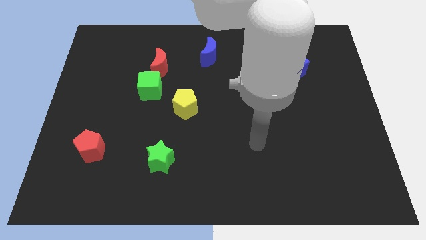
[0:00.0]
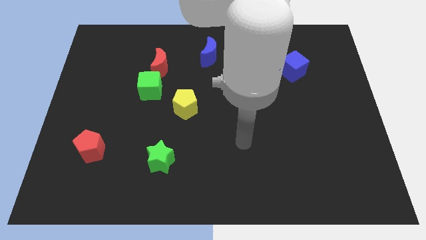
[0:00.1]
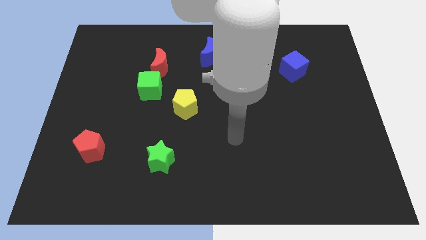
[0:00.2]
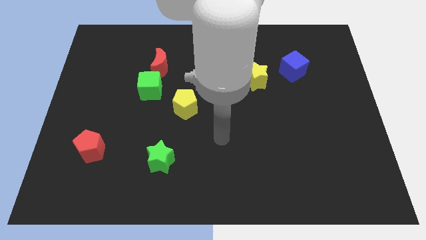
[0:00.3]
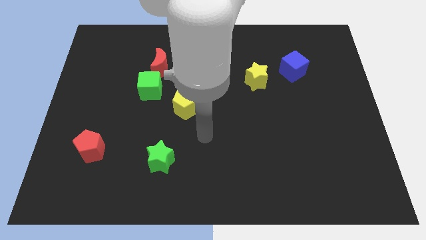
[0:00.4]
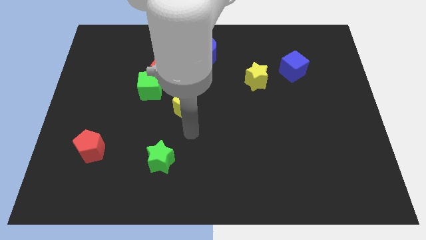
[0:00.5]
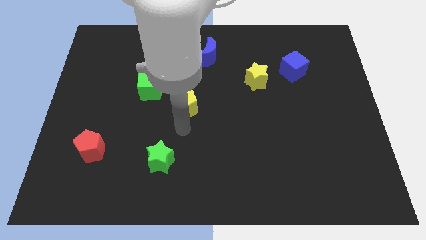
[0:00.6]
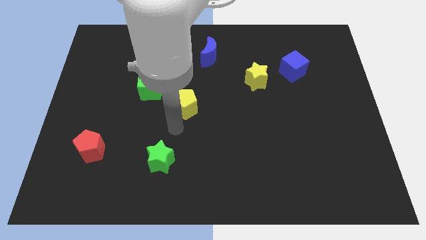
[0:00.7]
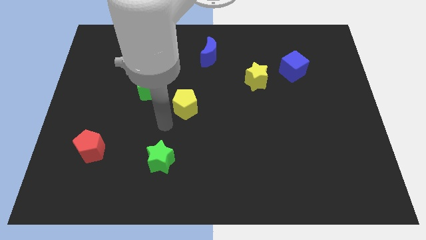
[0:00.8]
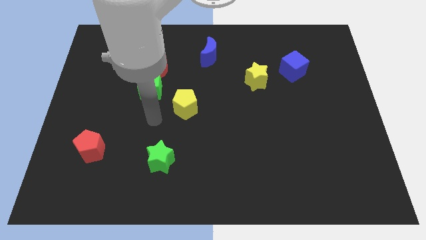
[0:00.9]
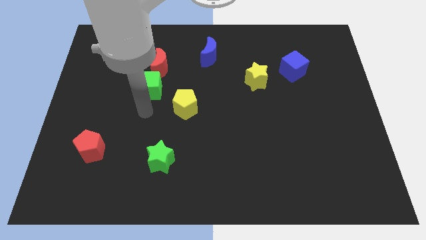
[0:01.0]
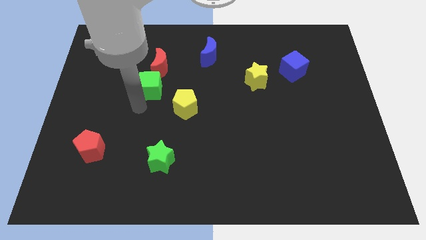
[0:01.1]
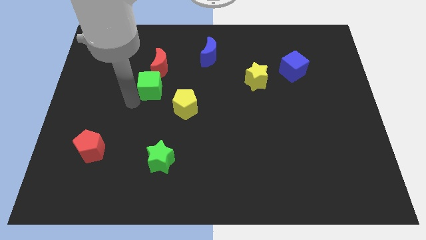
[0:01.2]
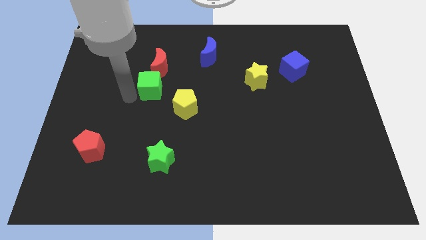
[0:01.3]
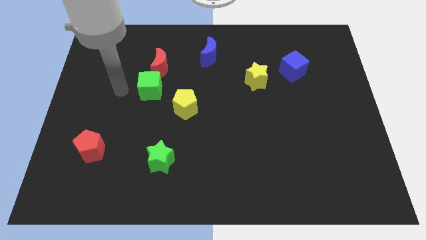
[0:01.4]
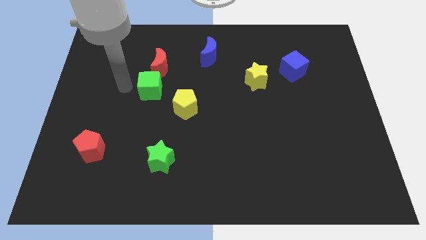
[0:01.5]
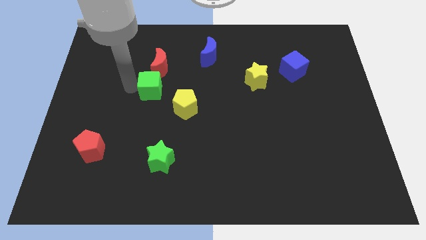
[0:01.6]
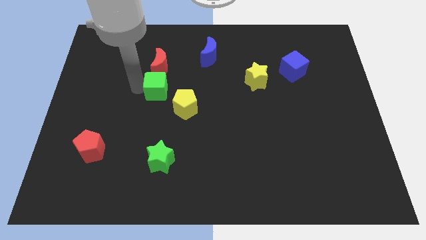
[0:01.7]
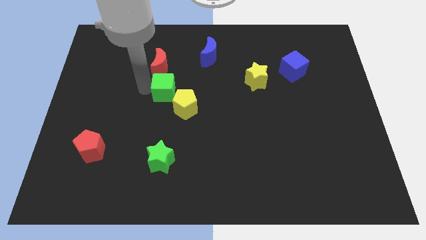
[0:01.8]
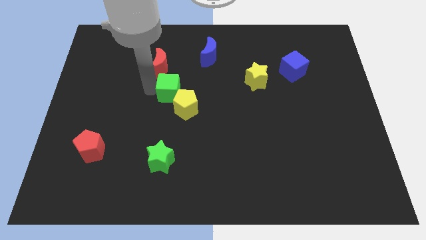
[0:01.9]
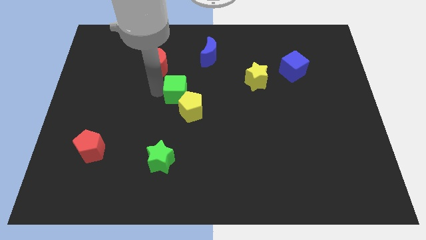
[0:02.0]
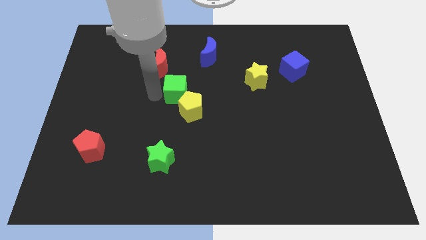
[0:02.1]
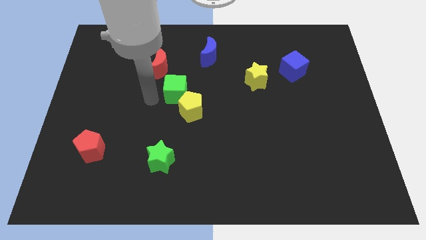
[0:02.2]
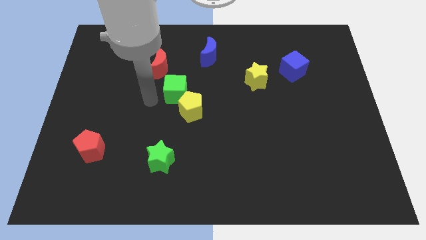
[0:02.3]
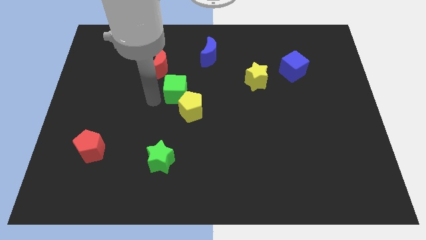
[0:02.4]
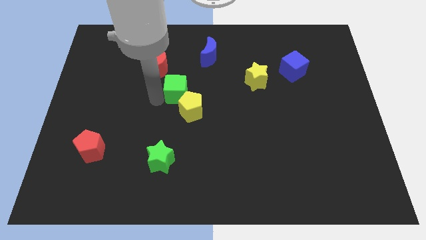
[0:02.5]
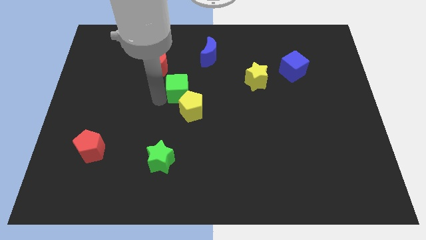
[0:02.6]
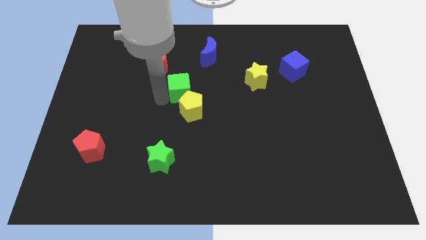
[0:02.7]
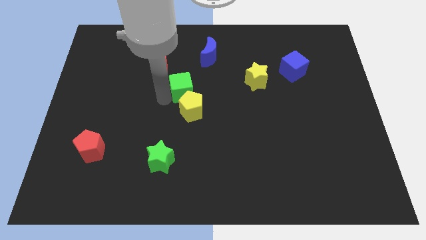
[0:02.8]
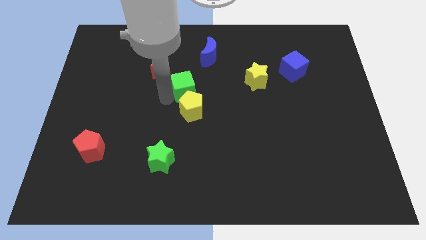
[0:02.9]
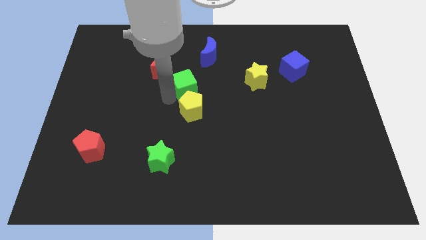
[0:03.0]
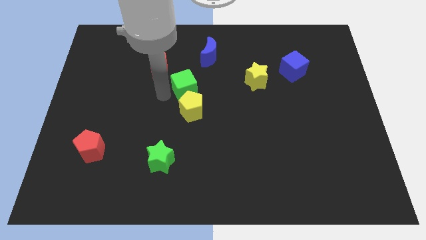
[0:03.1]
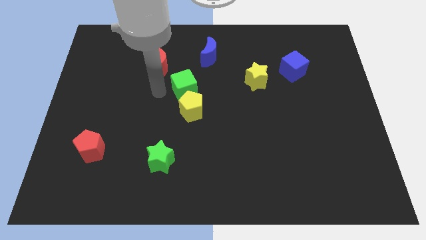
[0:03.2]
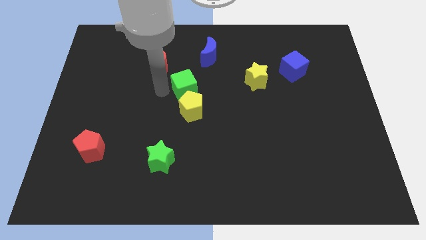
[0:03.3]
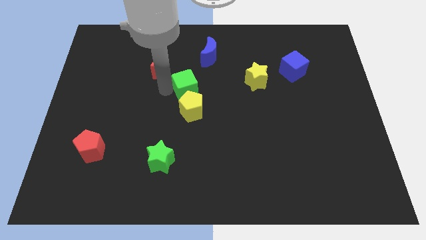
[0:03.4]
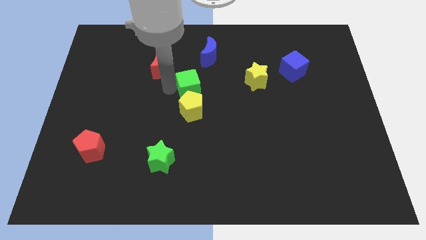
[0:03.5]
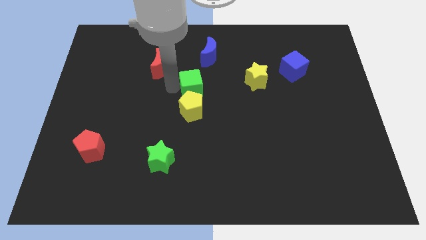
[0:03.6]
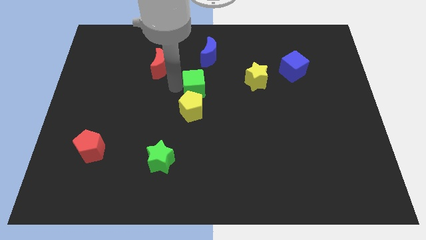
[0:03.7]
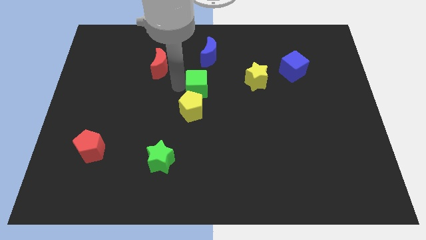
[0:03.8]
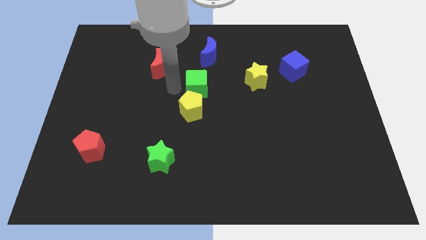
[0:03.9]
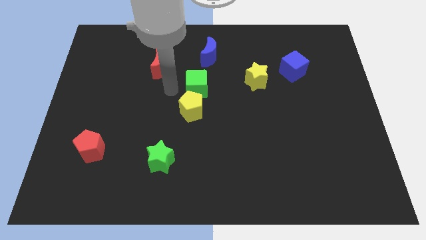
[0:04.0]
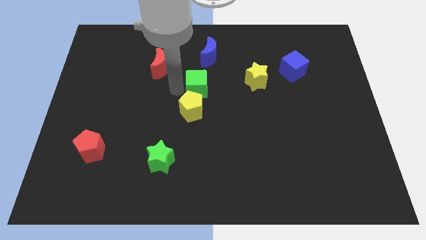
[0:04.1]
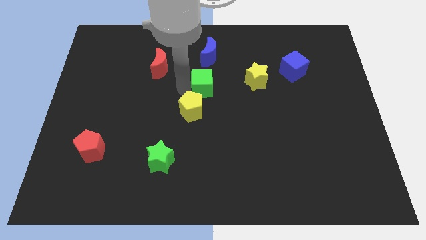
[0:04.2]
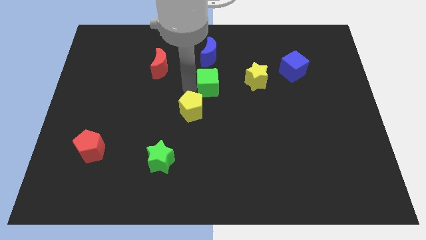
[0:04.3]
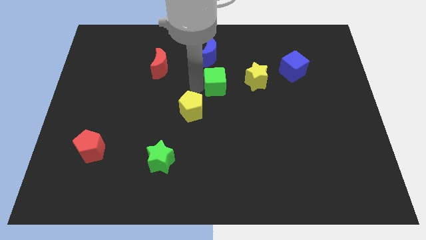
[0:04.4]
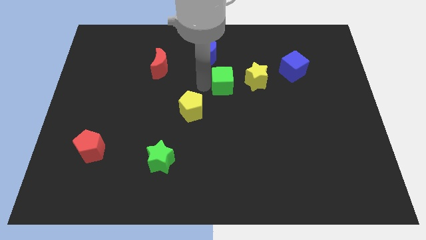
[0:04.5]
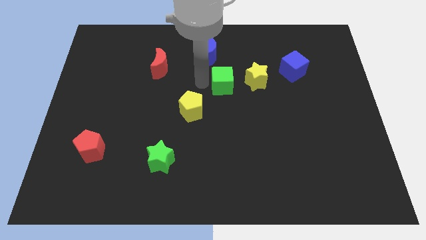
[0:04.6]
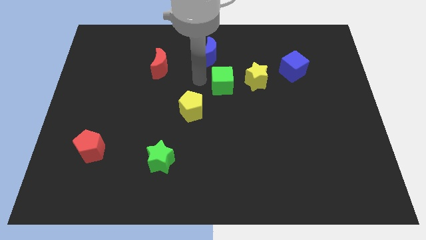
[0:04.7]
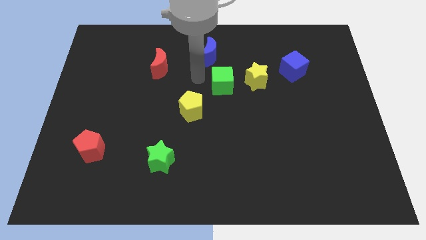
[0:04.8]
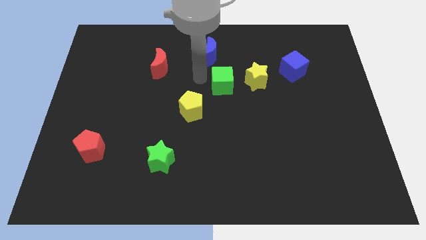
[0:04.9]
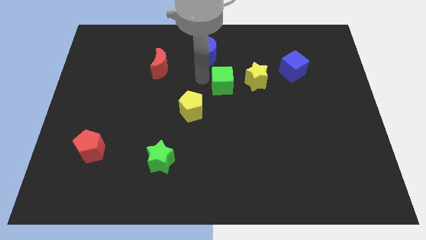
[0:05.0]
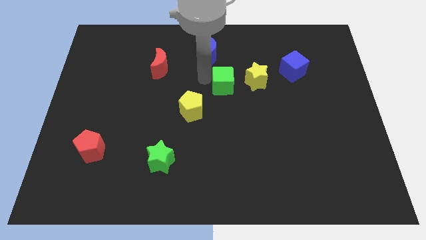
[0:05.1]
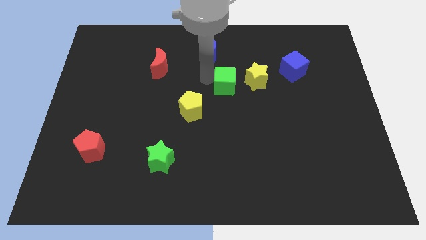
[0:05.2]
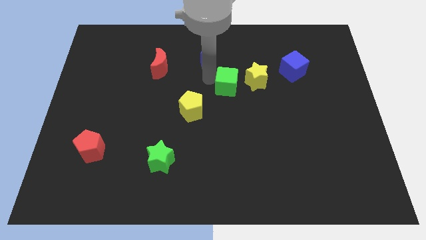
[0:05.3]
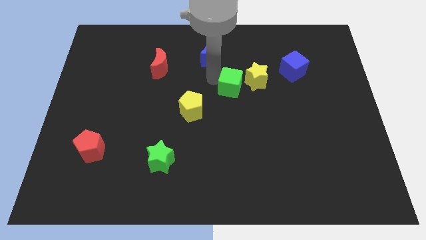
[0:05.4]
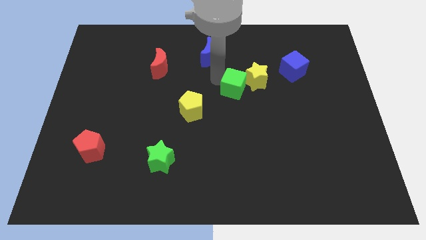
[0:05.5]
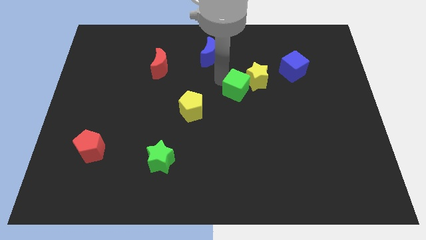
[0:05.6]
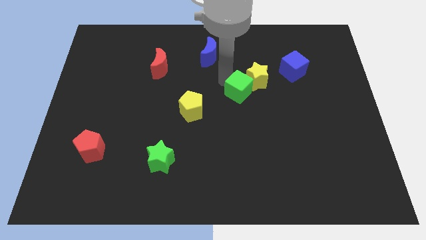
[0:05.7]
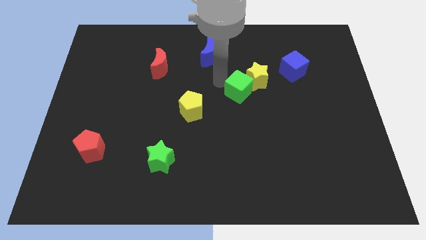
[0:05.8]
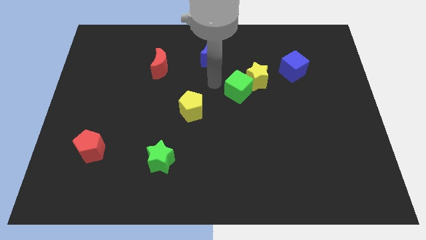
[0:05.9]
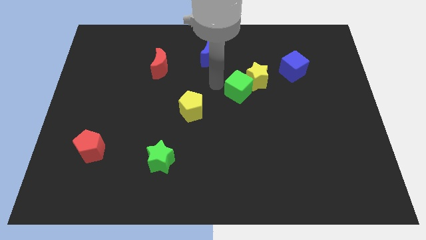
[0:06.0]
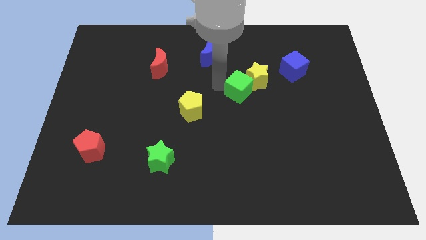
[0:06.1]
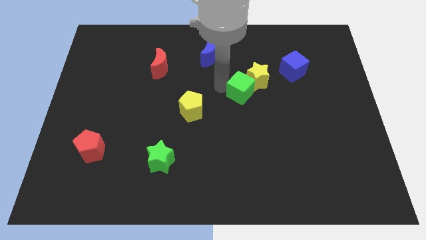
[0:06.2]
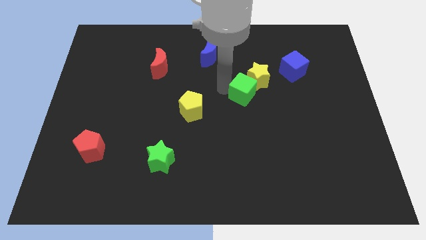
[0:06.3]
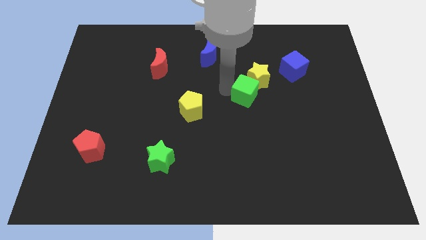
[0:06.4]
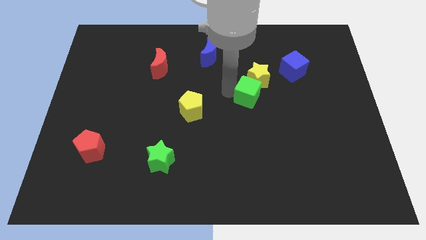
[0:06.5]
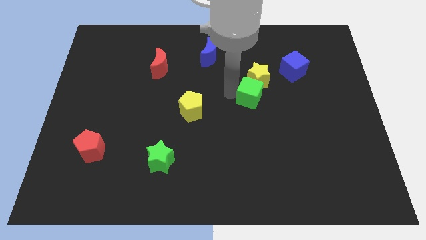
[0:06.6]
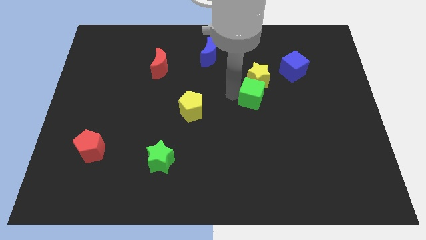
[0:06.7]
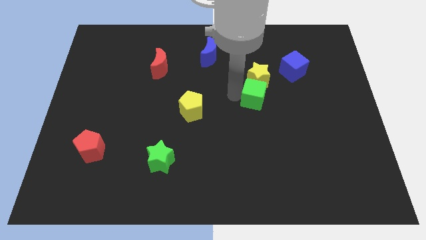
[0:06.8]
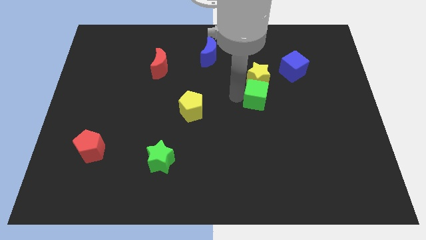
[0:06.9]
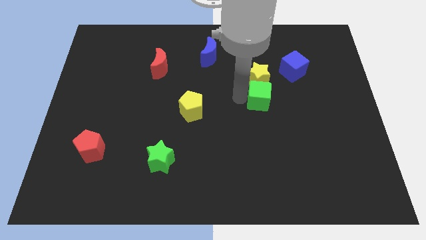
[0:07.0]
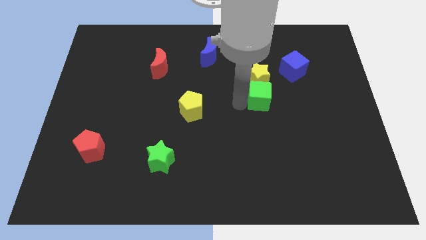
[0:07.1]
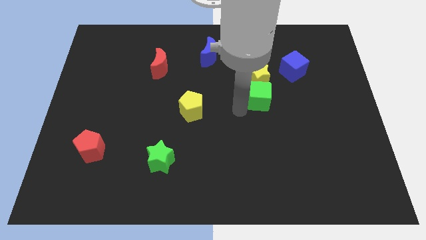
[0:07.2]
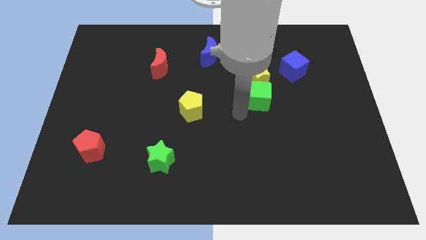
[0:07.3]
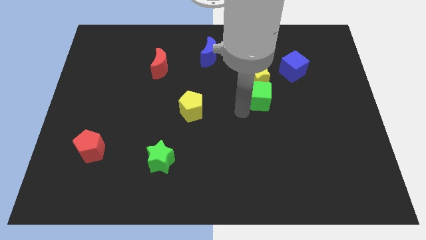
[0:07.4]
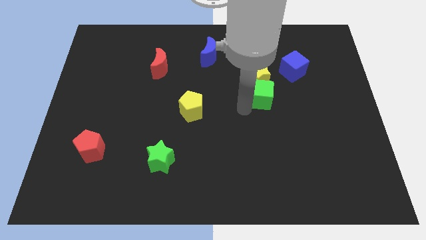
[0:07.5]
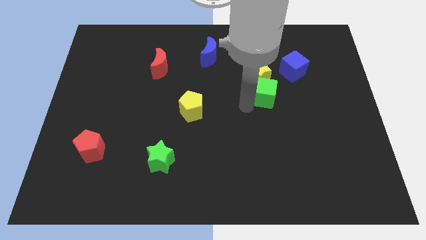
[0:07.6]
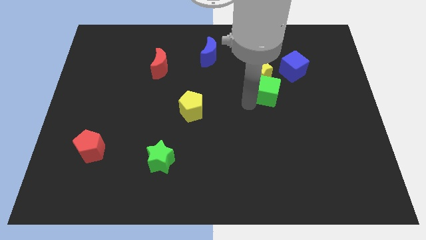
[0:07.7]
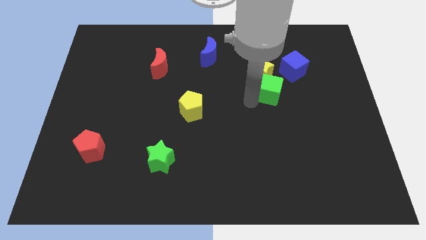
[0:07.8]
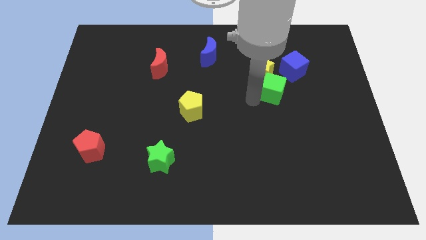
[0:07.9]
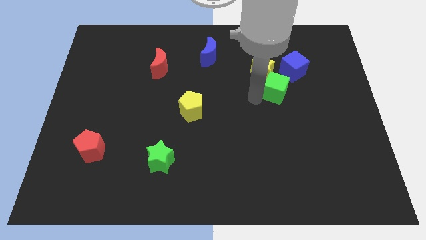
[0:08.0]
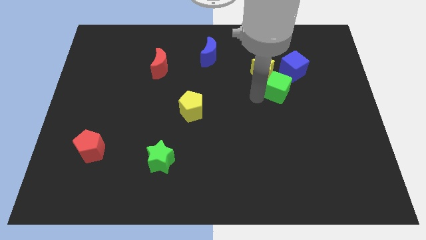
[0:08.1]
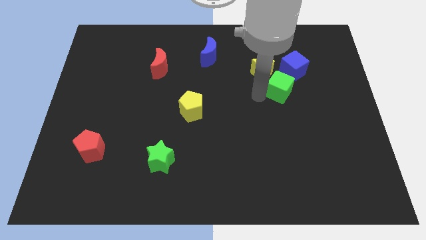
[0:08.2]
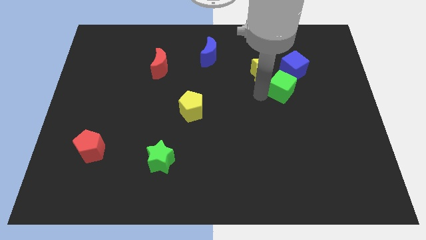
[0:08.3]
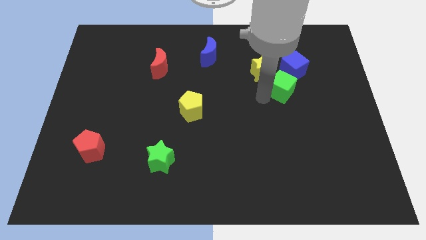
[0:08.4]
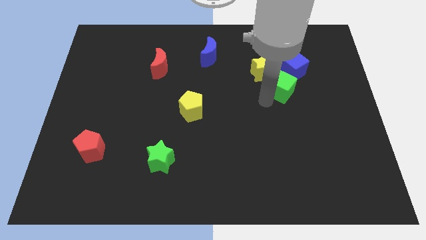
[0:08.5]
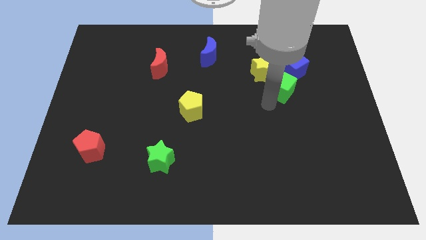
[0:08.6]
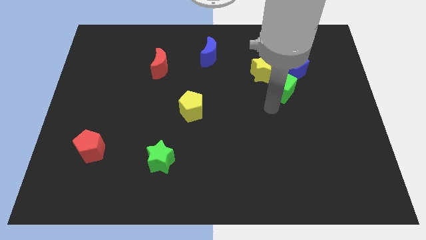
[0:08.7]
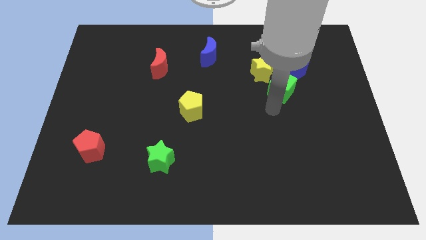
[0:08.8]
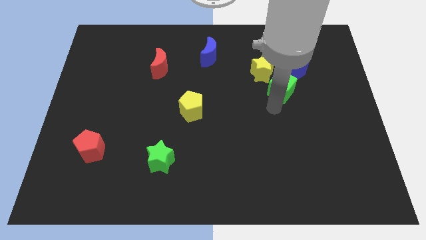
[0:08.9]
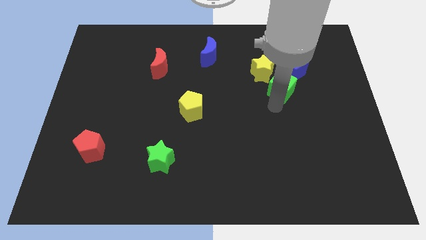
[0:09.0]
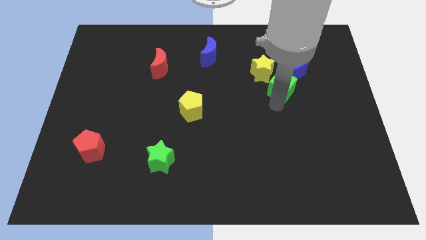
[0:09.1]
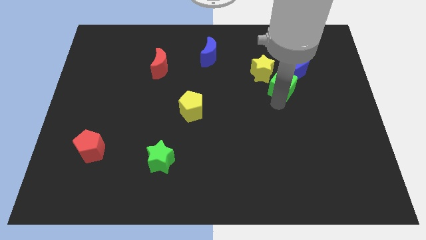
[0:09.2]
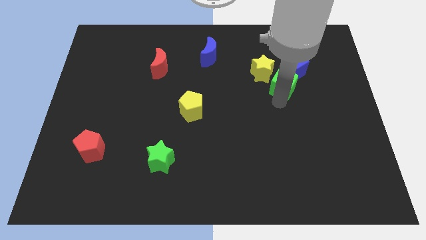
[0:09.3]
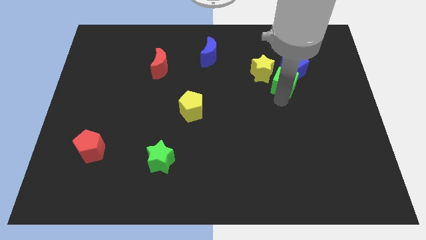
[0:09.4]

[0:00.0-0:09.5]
move the green cube towards the blue cube
